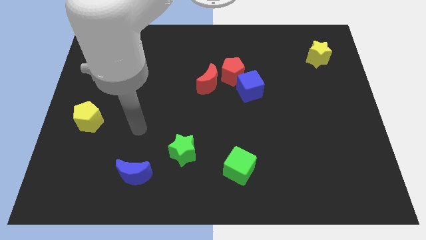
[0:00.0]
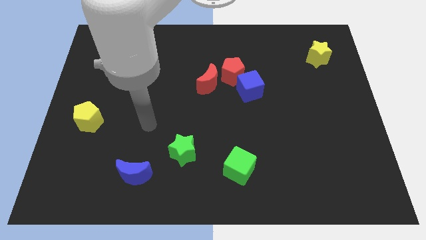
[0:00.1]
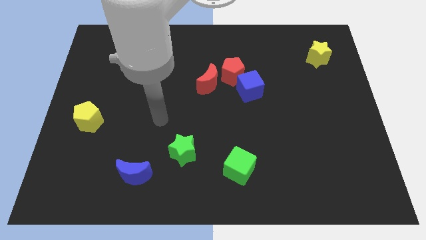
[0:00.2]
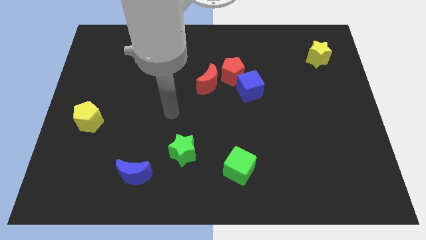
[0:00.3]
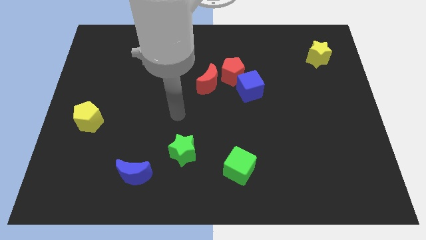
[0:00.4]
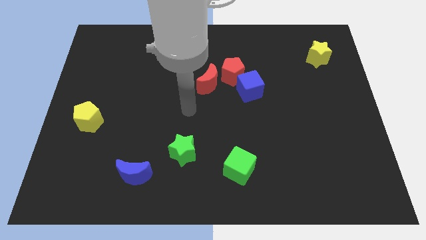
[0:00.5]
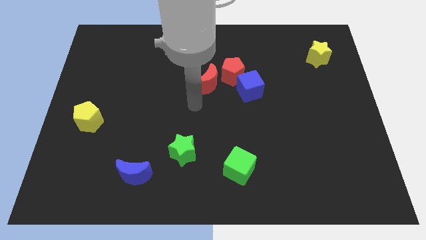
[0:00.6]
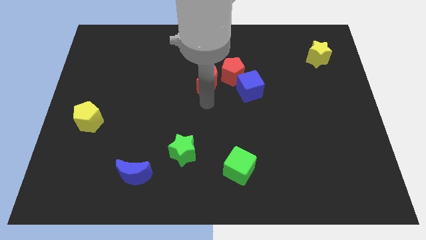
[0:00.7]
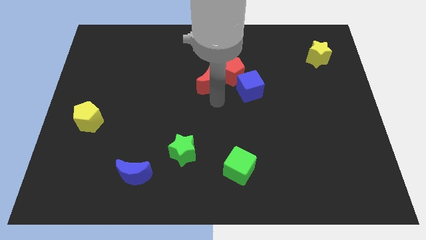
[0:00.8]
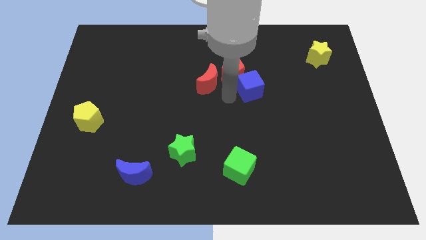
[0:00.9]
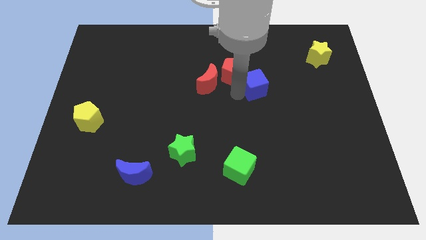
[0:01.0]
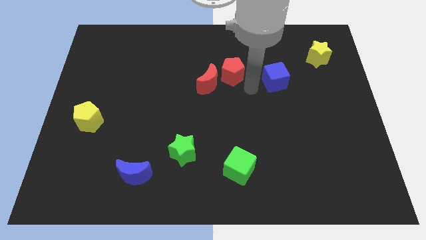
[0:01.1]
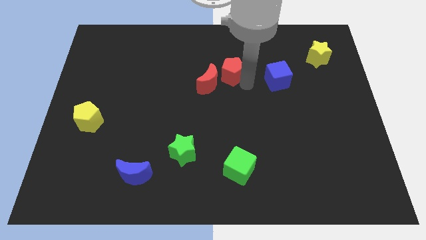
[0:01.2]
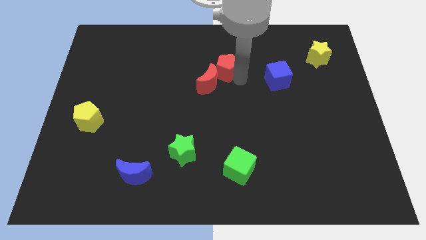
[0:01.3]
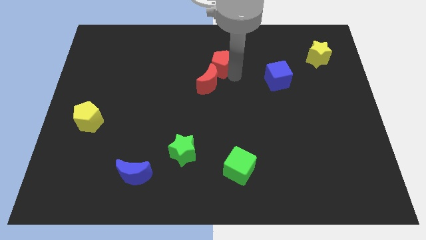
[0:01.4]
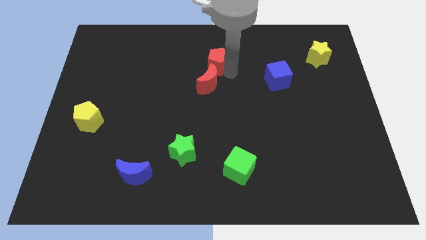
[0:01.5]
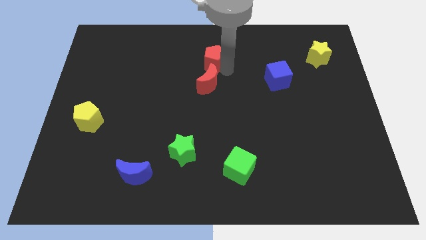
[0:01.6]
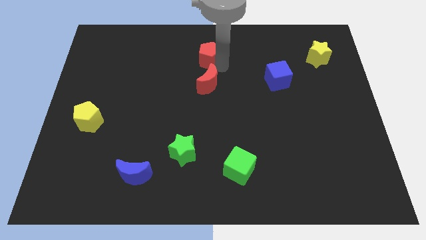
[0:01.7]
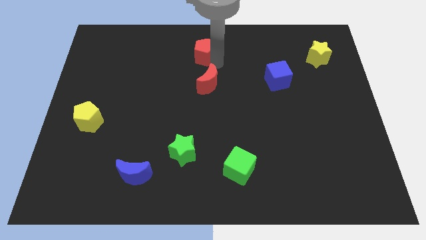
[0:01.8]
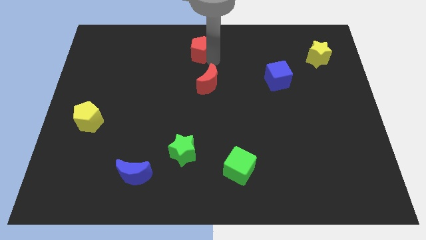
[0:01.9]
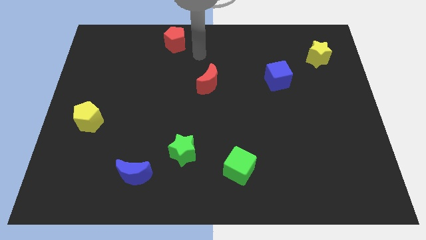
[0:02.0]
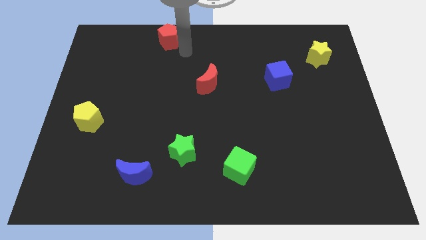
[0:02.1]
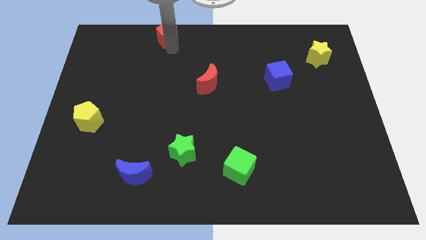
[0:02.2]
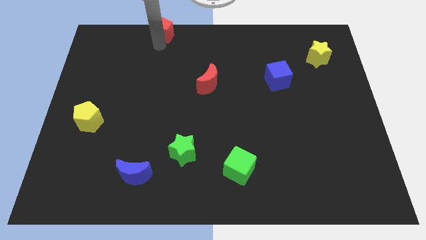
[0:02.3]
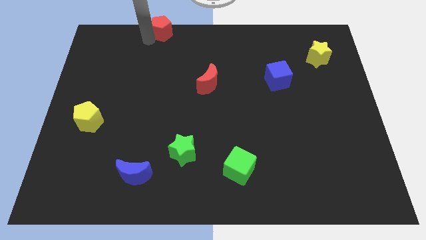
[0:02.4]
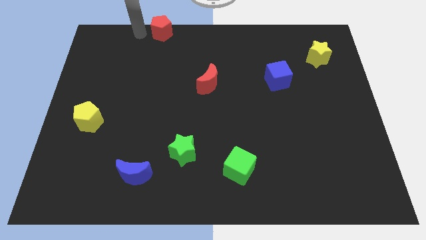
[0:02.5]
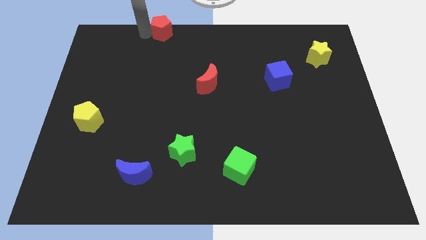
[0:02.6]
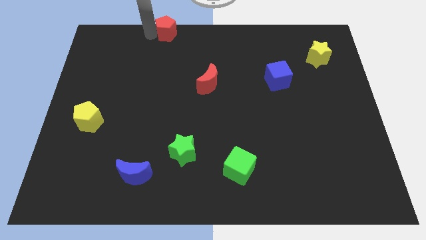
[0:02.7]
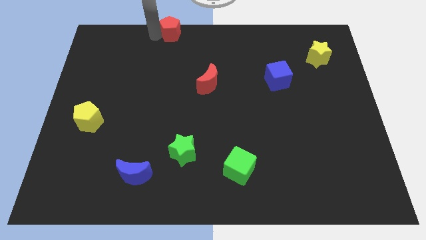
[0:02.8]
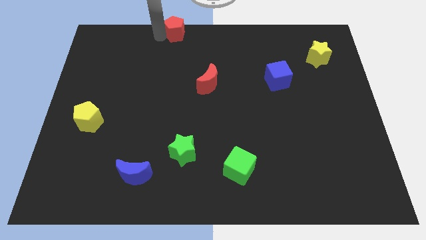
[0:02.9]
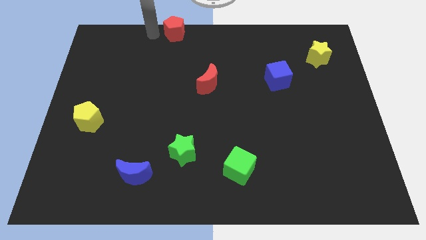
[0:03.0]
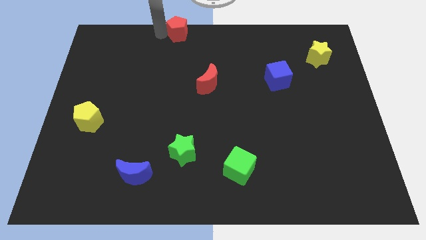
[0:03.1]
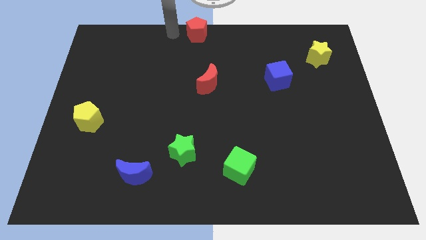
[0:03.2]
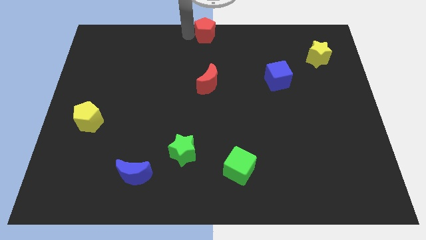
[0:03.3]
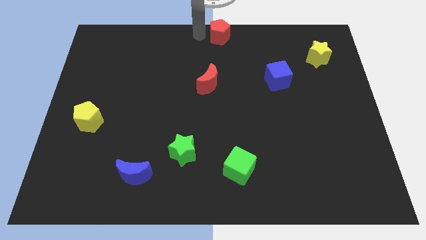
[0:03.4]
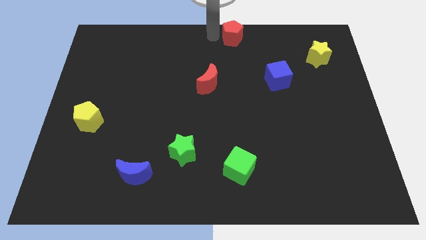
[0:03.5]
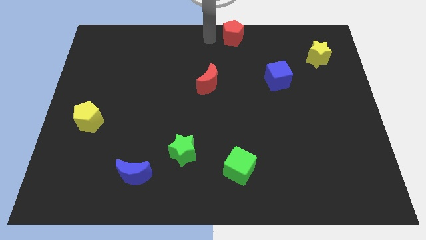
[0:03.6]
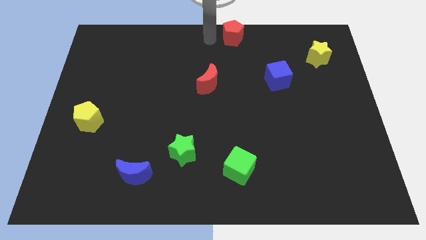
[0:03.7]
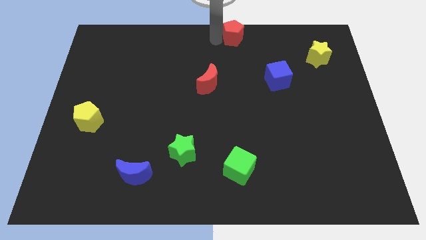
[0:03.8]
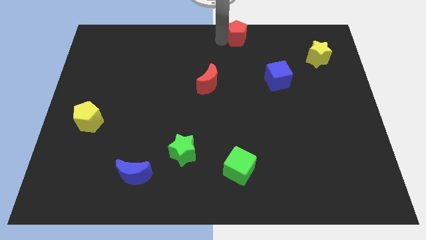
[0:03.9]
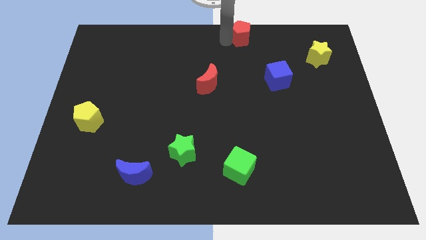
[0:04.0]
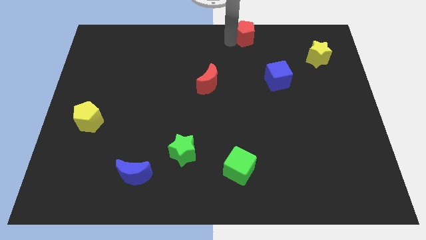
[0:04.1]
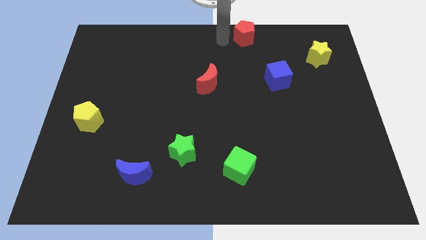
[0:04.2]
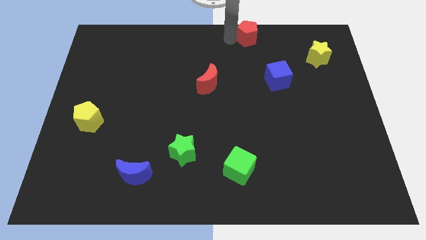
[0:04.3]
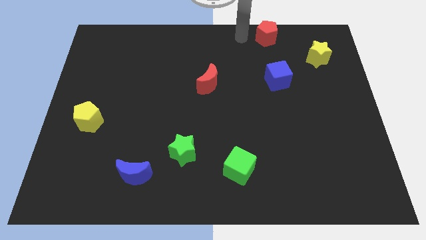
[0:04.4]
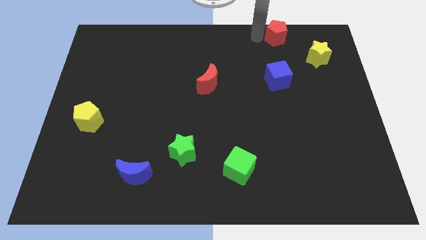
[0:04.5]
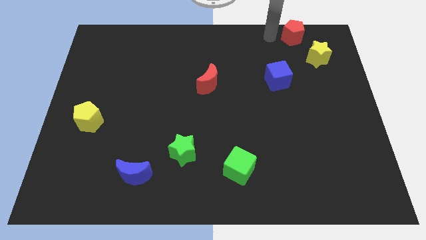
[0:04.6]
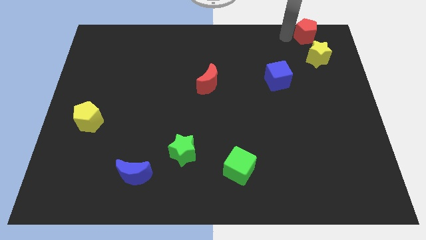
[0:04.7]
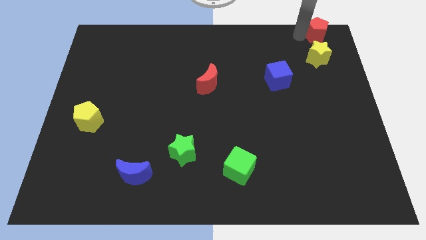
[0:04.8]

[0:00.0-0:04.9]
slide the red pentagon to the top right

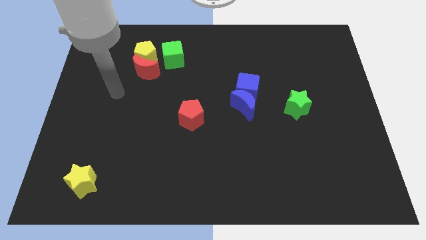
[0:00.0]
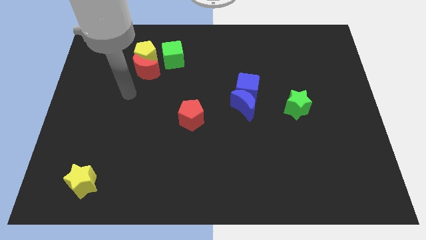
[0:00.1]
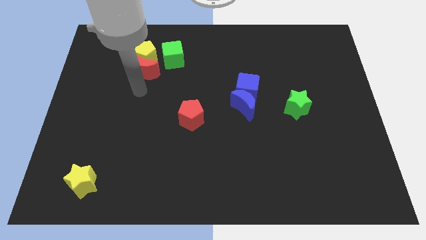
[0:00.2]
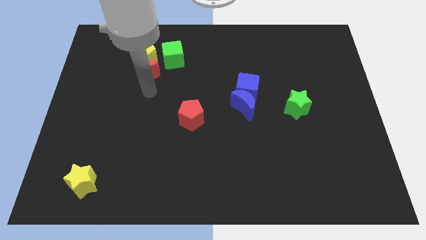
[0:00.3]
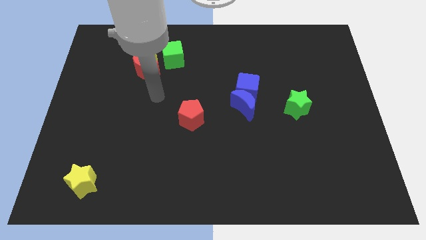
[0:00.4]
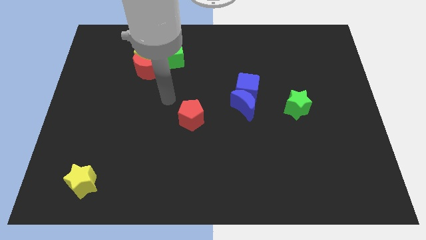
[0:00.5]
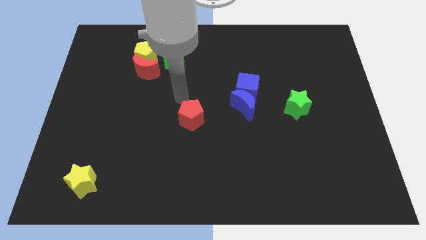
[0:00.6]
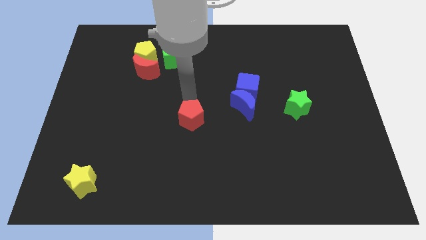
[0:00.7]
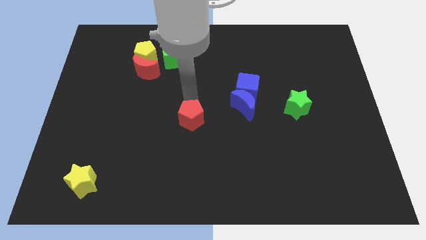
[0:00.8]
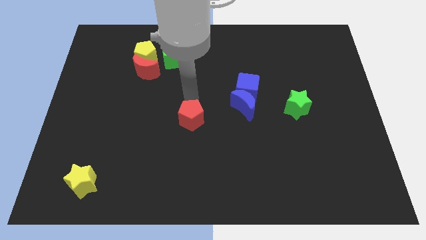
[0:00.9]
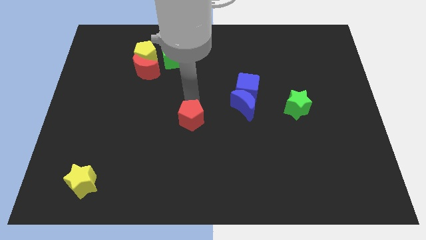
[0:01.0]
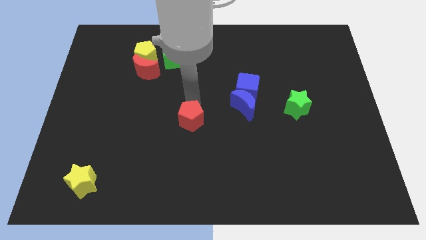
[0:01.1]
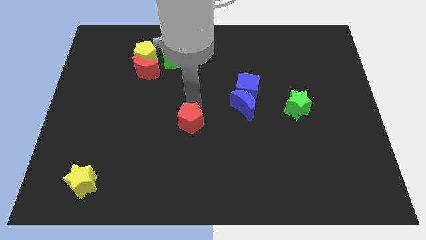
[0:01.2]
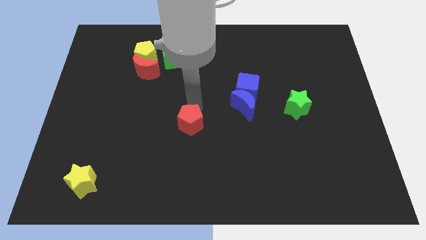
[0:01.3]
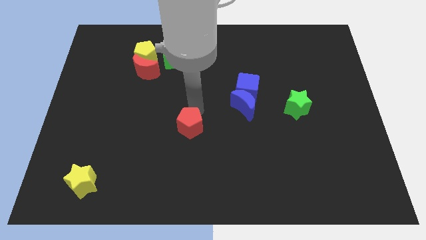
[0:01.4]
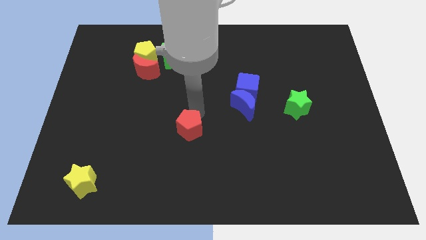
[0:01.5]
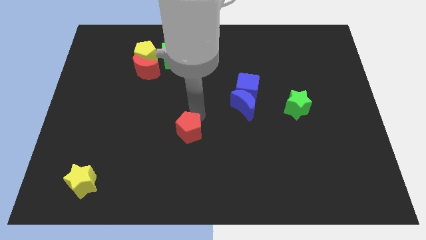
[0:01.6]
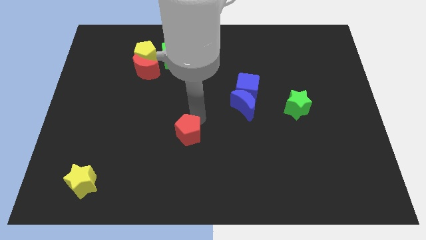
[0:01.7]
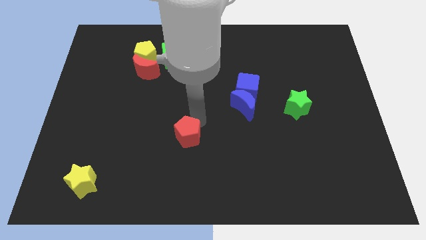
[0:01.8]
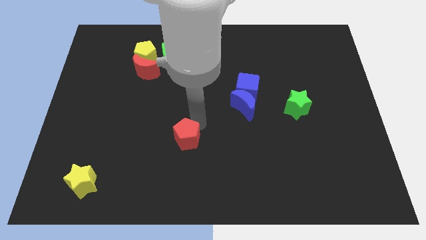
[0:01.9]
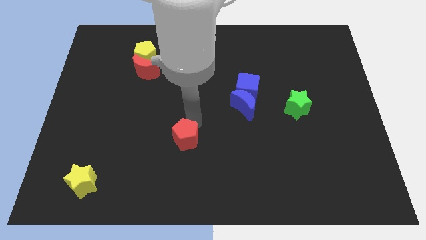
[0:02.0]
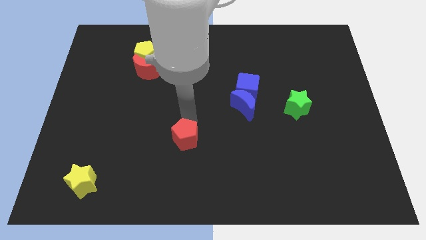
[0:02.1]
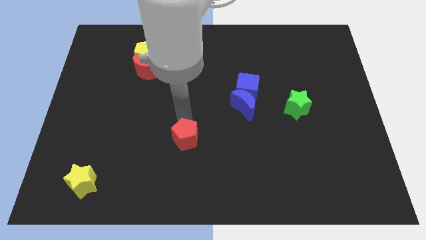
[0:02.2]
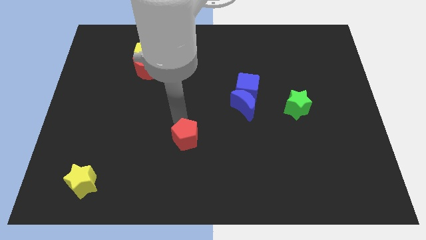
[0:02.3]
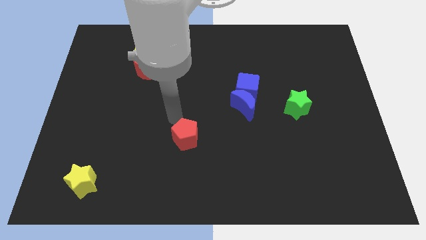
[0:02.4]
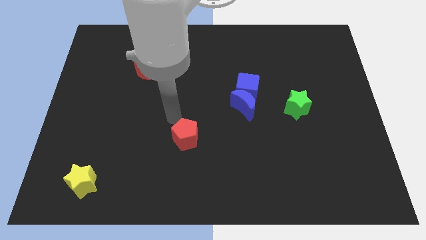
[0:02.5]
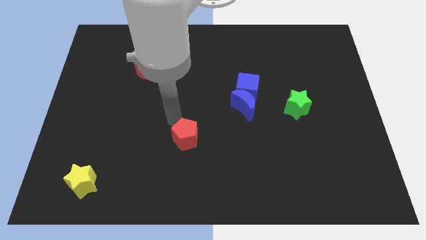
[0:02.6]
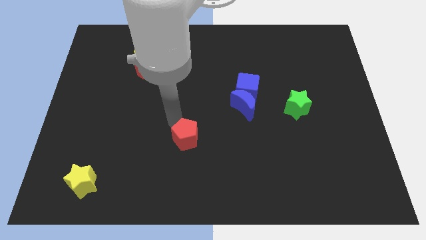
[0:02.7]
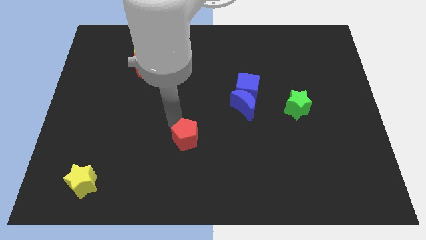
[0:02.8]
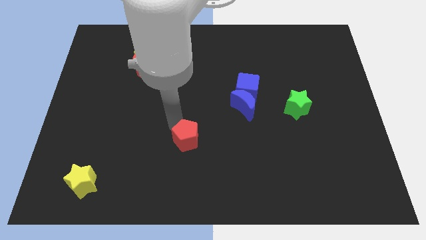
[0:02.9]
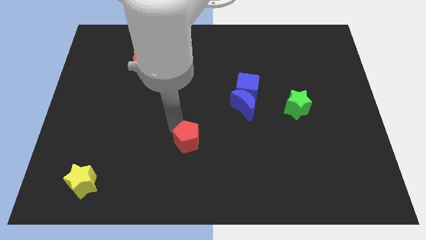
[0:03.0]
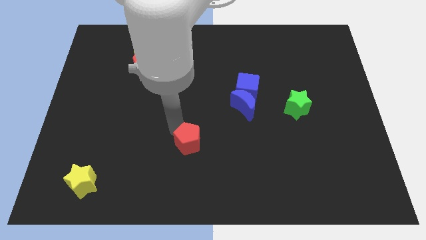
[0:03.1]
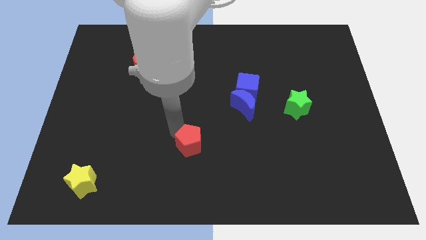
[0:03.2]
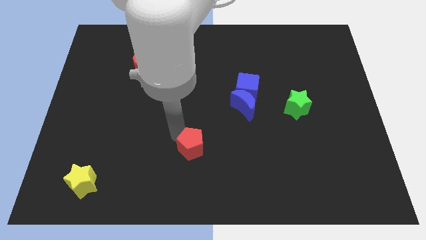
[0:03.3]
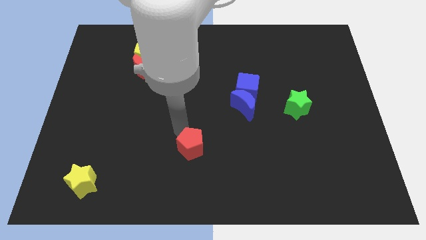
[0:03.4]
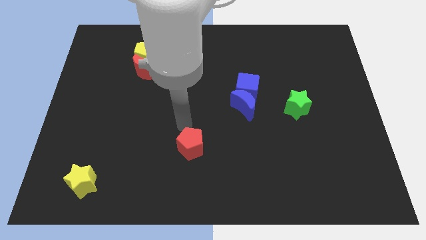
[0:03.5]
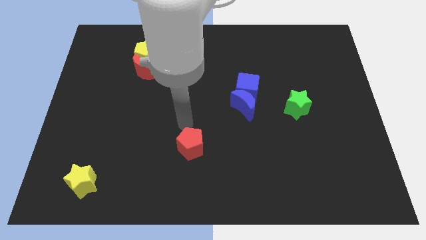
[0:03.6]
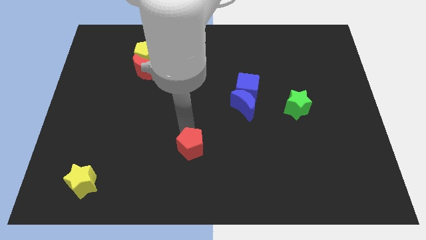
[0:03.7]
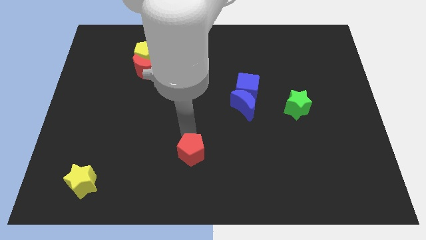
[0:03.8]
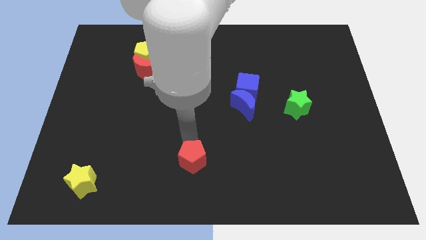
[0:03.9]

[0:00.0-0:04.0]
slide the red pentagon to the bottom
